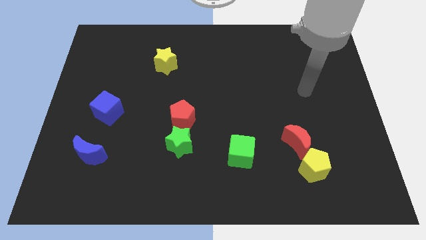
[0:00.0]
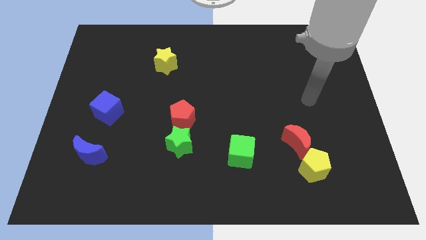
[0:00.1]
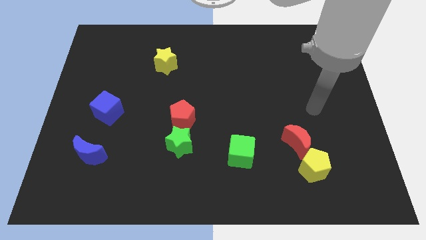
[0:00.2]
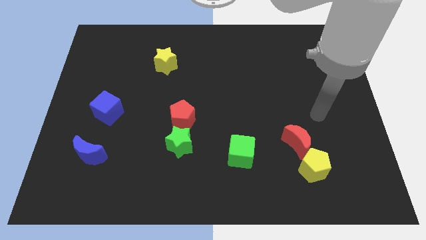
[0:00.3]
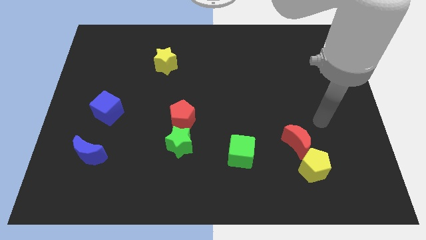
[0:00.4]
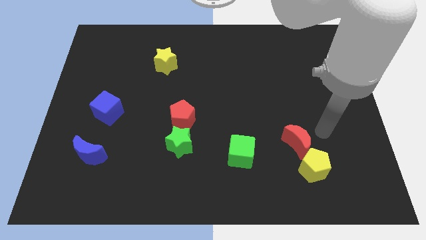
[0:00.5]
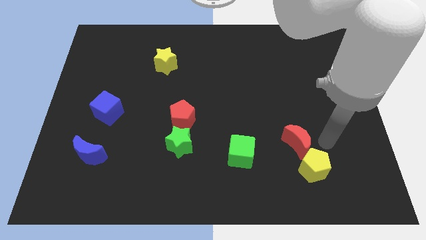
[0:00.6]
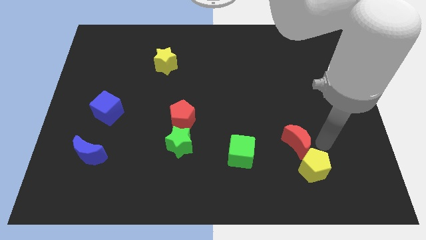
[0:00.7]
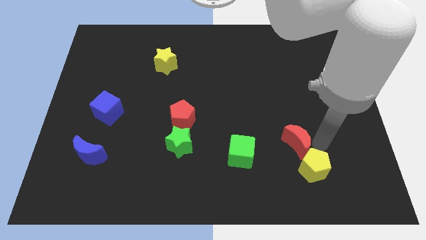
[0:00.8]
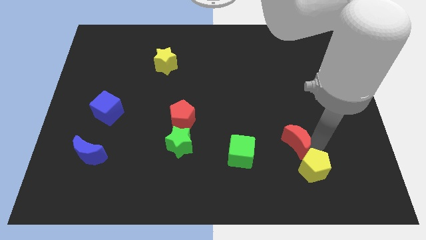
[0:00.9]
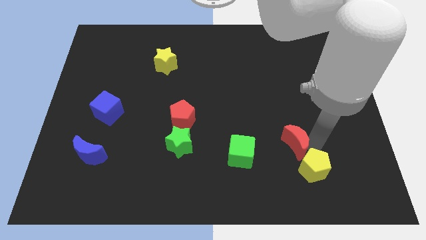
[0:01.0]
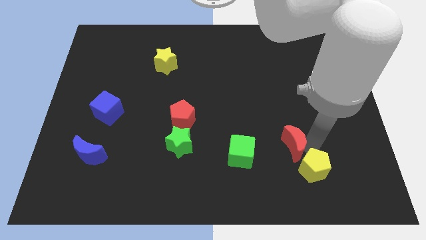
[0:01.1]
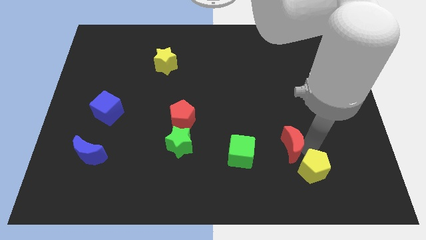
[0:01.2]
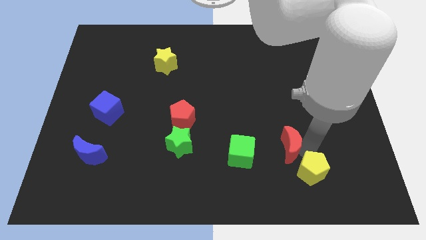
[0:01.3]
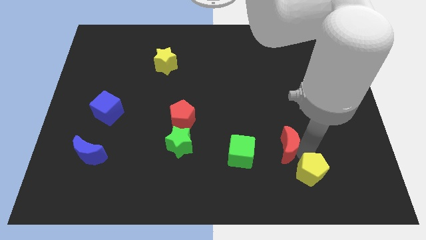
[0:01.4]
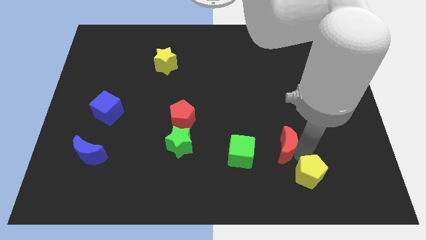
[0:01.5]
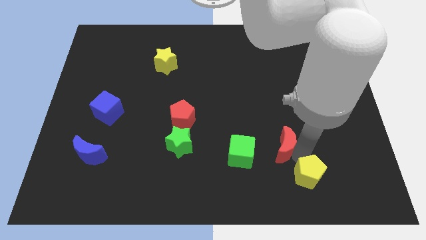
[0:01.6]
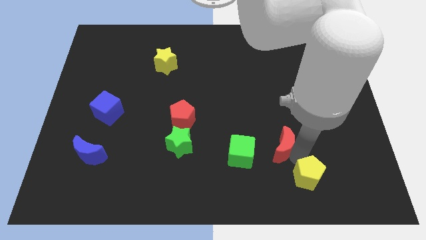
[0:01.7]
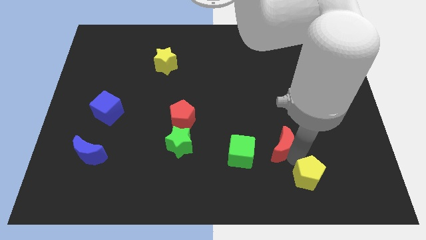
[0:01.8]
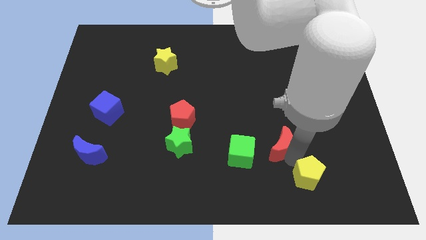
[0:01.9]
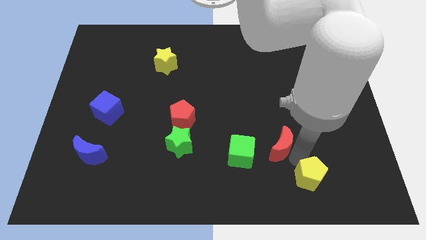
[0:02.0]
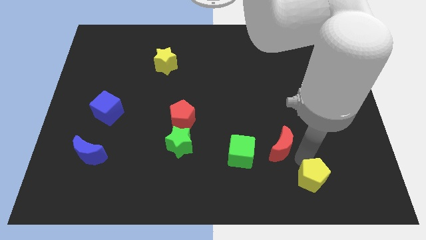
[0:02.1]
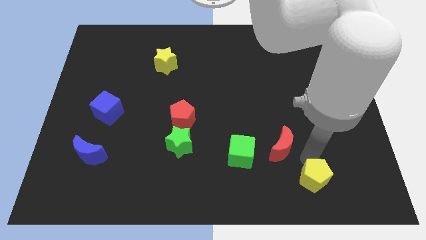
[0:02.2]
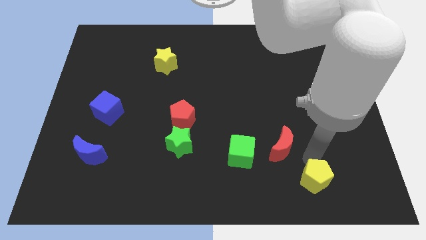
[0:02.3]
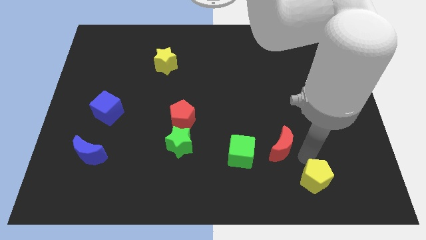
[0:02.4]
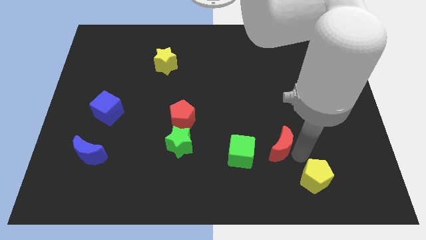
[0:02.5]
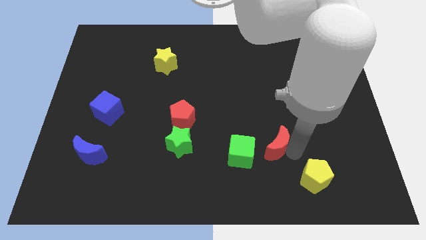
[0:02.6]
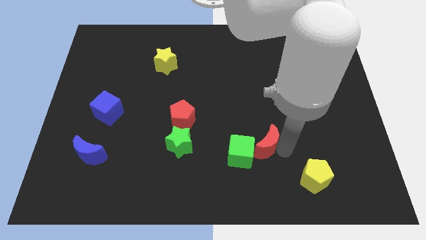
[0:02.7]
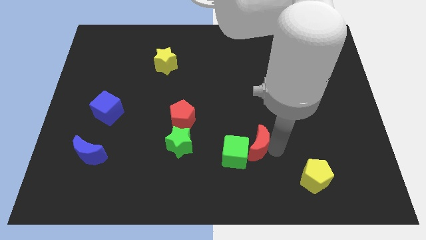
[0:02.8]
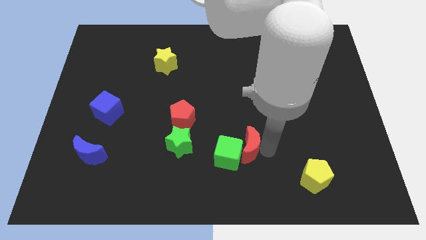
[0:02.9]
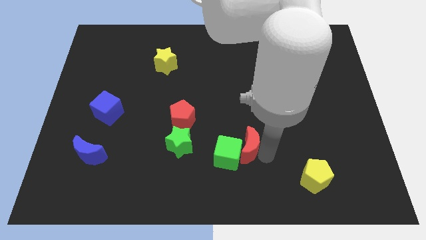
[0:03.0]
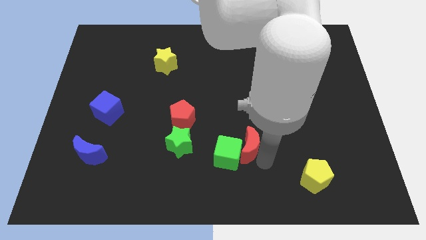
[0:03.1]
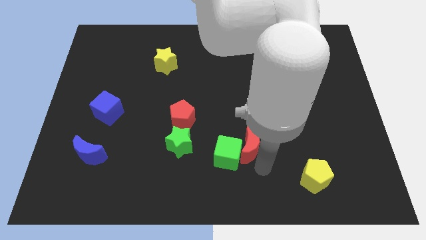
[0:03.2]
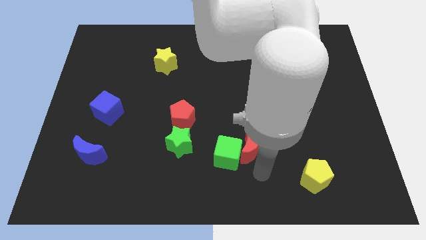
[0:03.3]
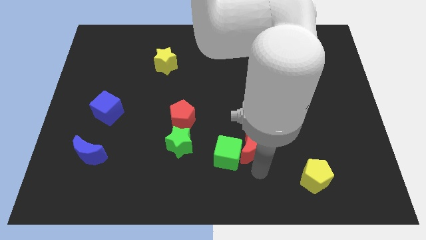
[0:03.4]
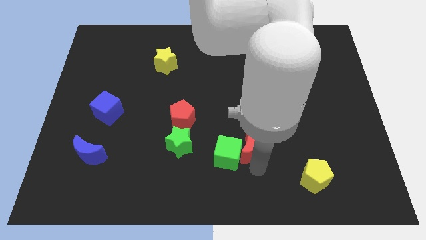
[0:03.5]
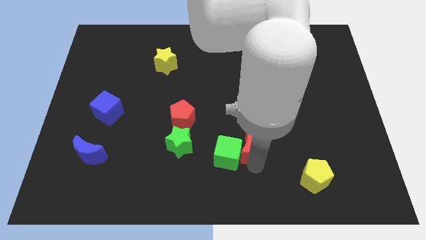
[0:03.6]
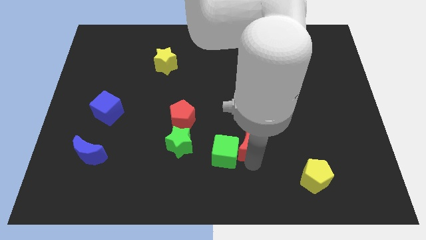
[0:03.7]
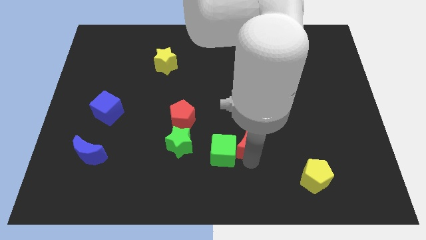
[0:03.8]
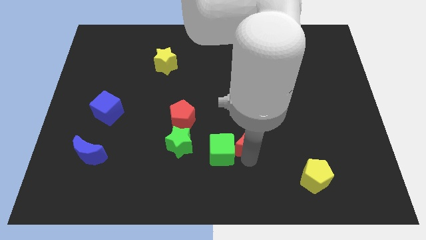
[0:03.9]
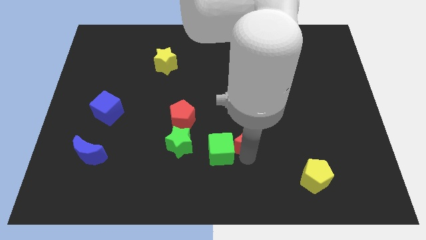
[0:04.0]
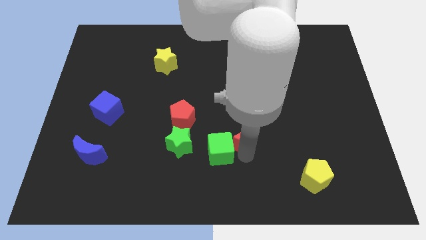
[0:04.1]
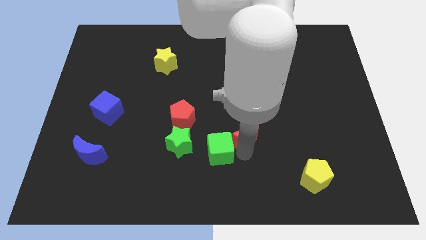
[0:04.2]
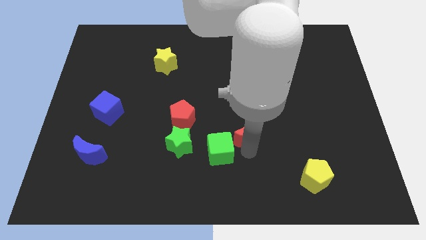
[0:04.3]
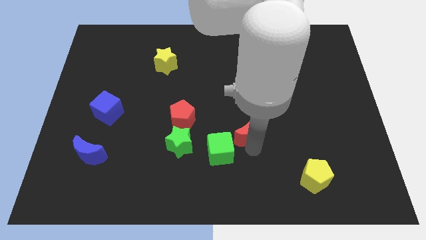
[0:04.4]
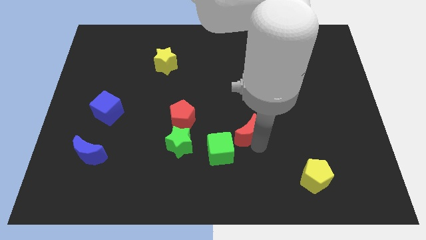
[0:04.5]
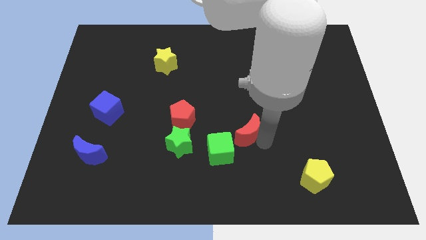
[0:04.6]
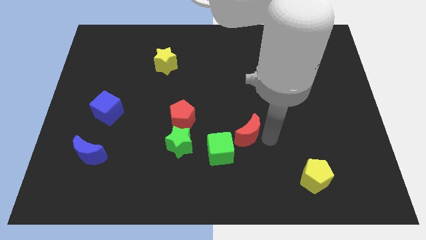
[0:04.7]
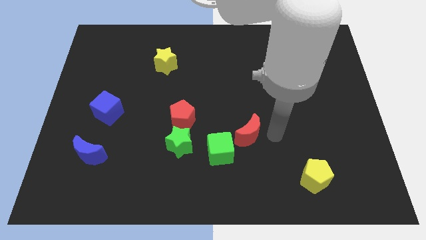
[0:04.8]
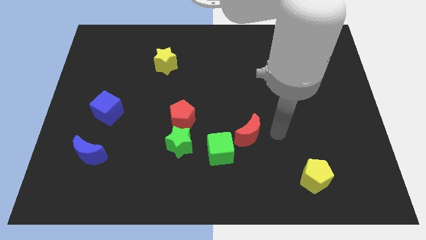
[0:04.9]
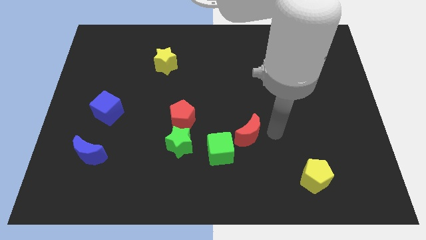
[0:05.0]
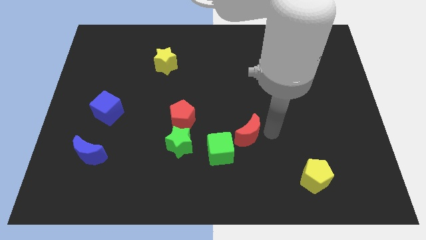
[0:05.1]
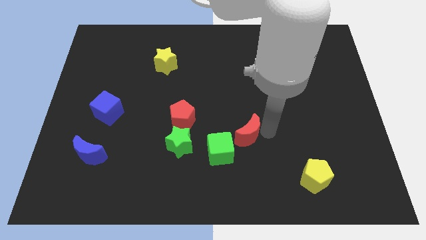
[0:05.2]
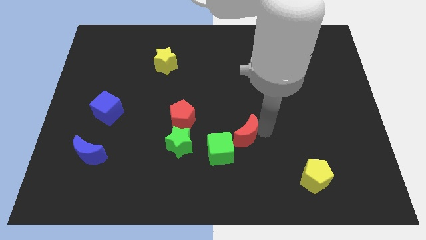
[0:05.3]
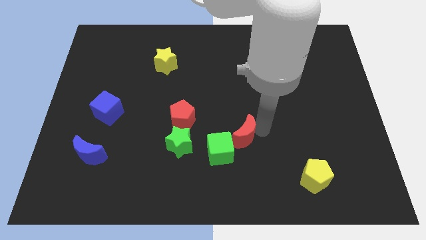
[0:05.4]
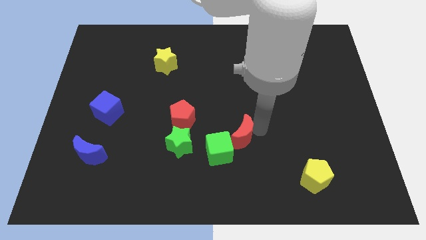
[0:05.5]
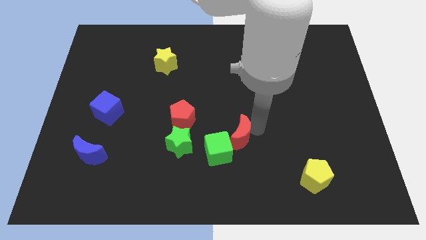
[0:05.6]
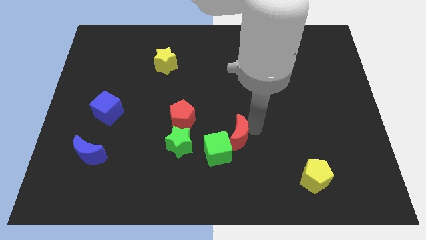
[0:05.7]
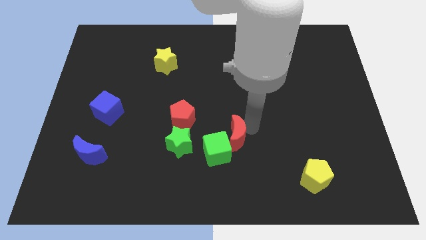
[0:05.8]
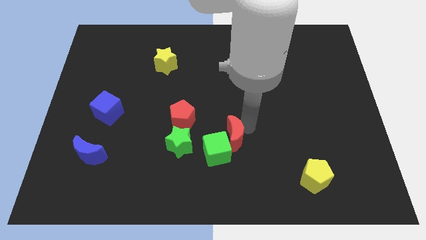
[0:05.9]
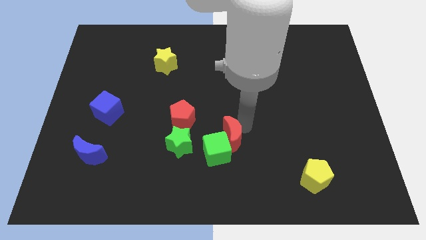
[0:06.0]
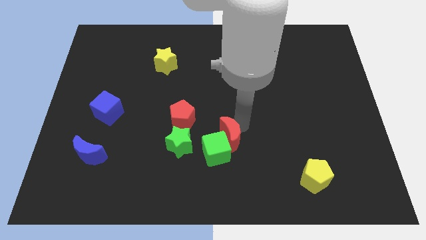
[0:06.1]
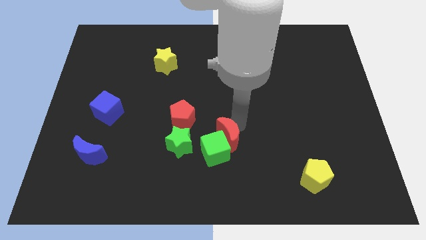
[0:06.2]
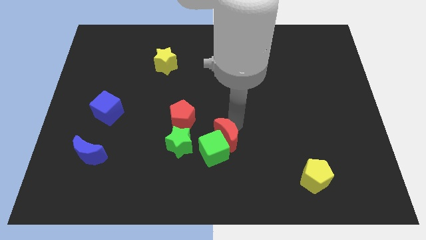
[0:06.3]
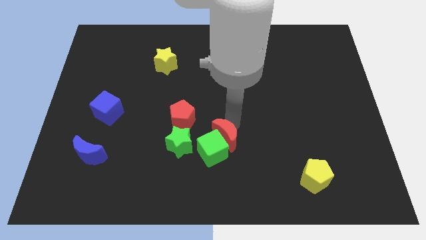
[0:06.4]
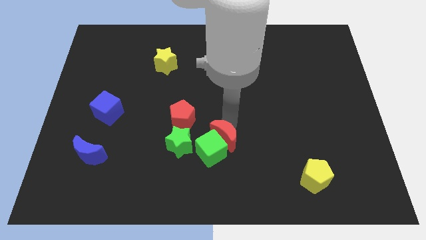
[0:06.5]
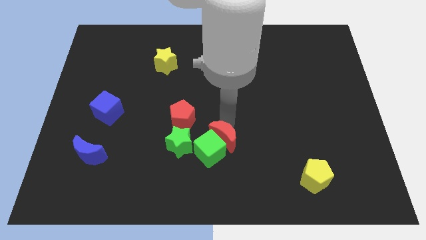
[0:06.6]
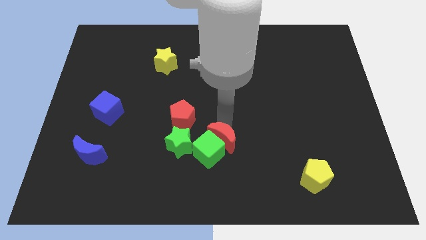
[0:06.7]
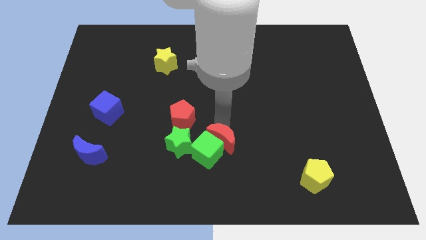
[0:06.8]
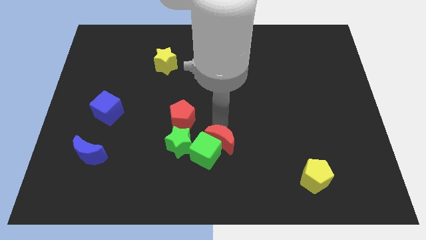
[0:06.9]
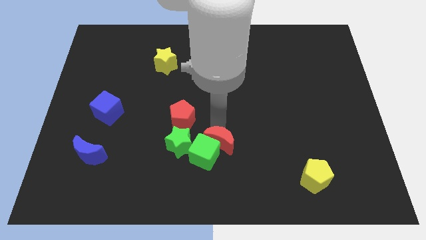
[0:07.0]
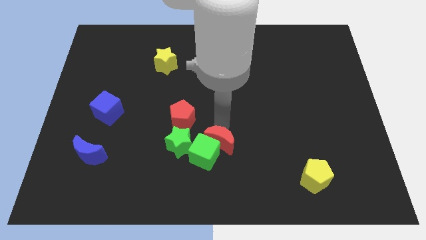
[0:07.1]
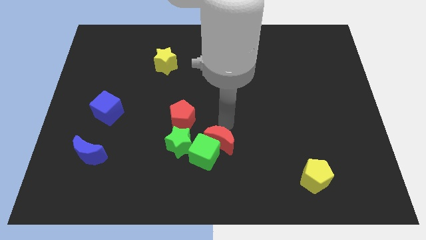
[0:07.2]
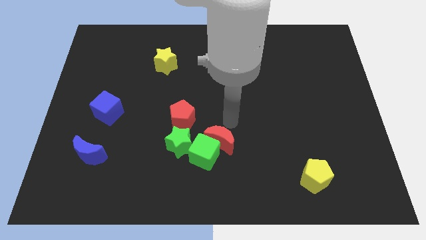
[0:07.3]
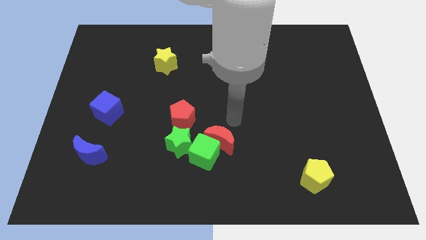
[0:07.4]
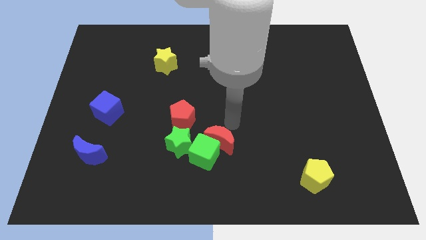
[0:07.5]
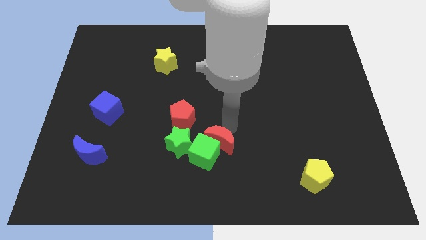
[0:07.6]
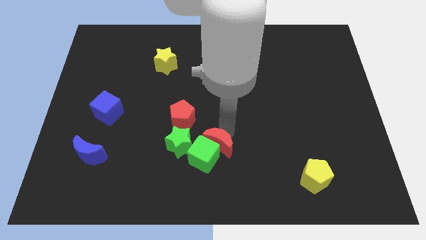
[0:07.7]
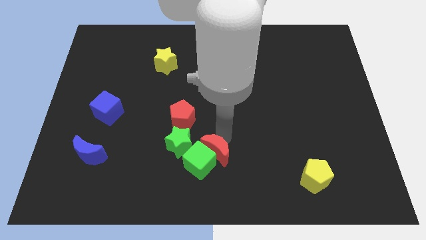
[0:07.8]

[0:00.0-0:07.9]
move the red moon to the bottom right of the green star
